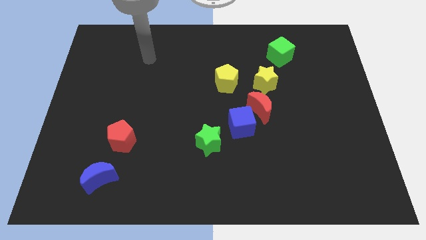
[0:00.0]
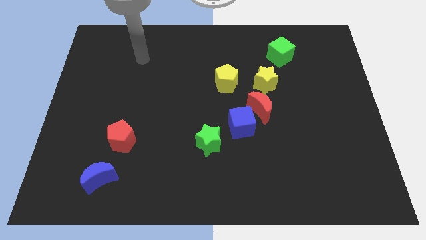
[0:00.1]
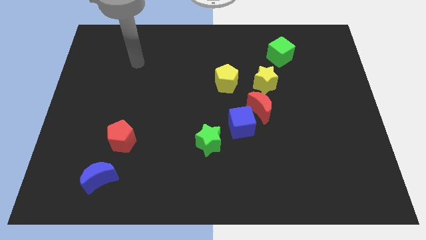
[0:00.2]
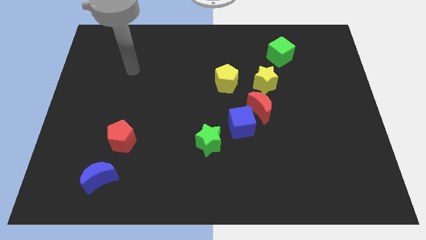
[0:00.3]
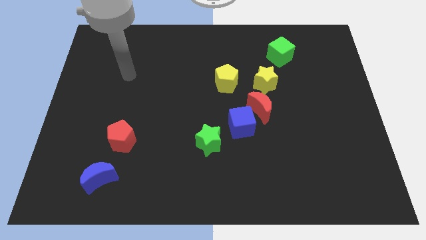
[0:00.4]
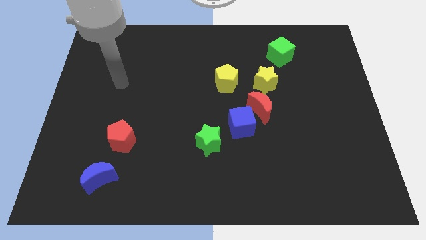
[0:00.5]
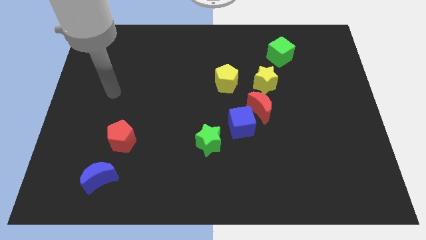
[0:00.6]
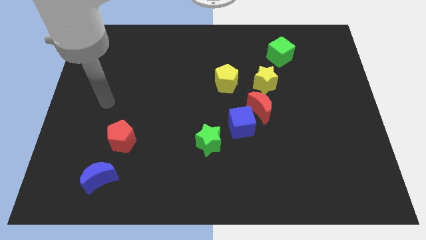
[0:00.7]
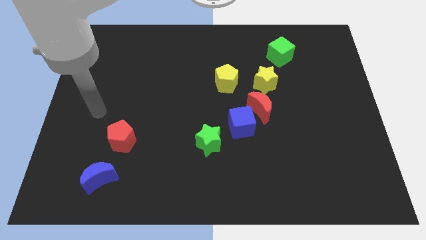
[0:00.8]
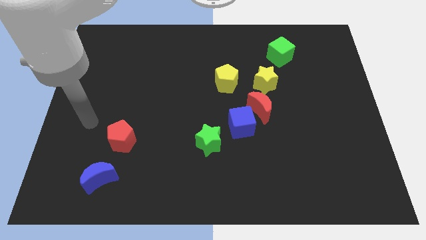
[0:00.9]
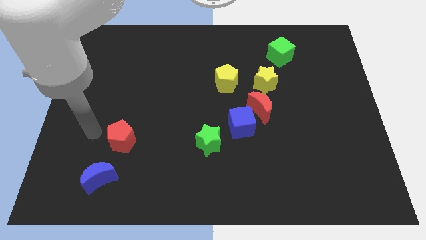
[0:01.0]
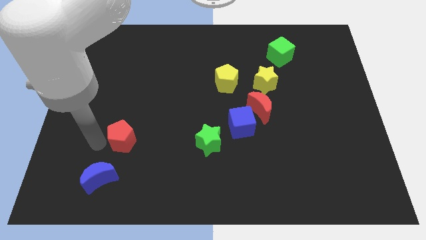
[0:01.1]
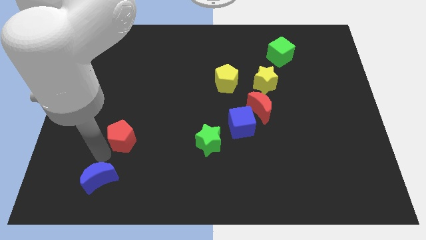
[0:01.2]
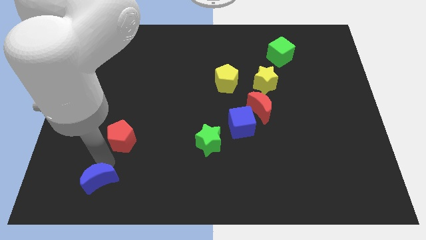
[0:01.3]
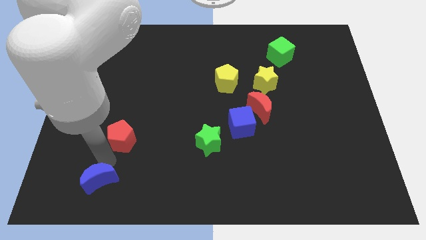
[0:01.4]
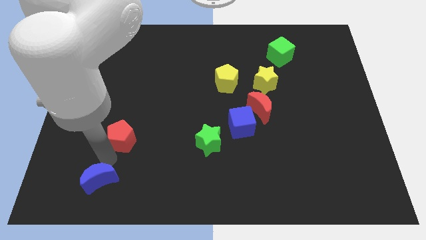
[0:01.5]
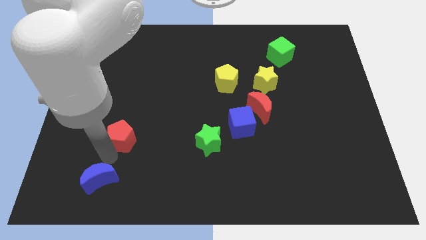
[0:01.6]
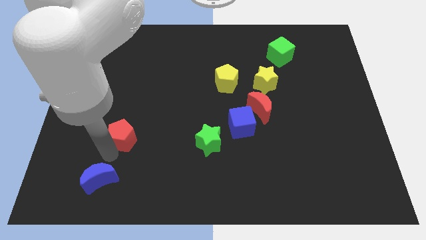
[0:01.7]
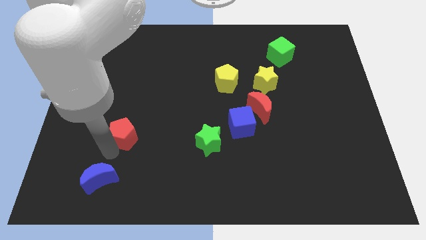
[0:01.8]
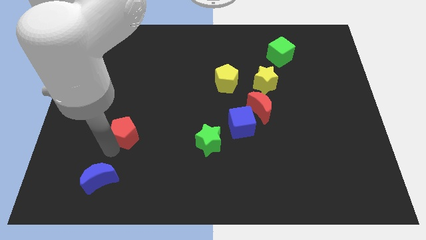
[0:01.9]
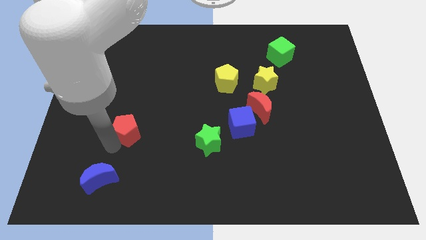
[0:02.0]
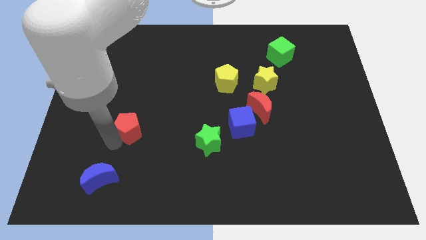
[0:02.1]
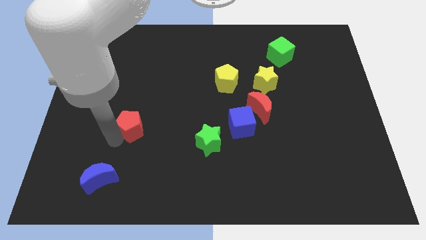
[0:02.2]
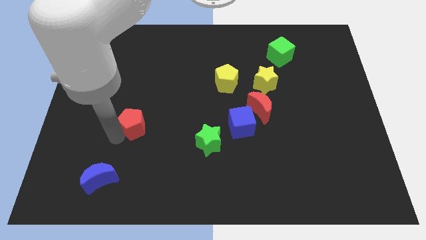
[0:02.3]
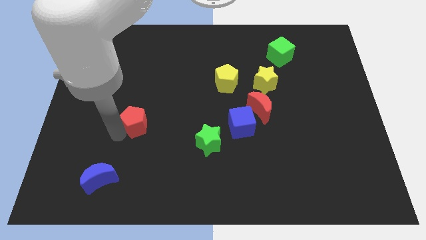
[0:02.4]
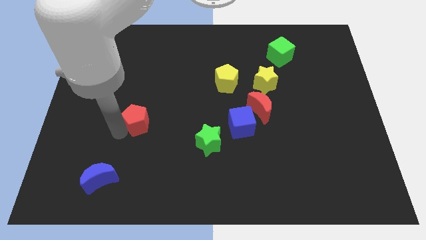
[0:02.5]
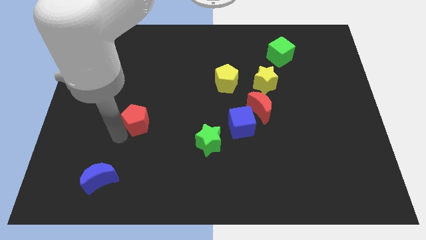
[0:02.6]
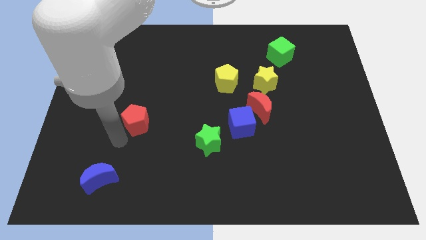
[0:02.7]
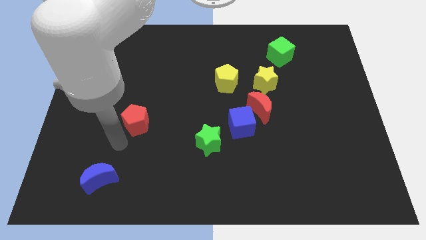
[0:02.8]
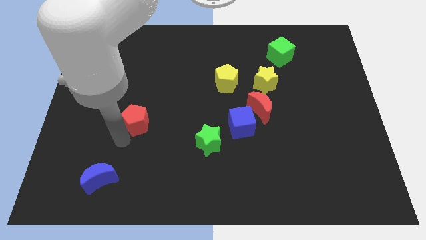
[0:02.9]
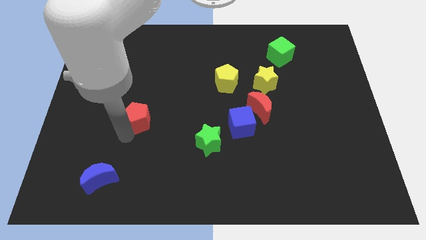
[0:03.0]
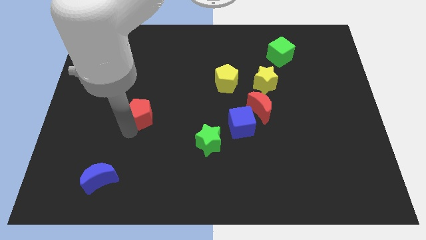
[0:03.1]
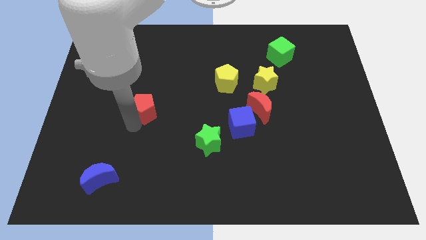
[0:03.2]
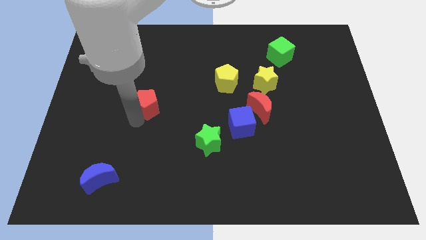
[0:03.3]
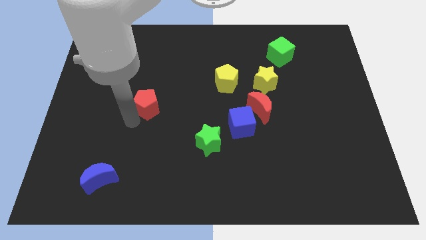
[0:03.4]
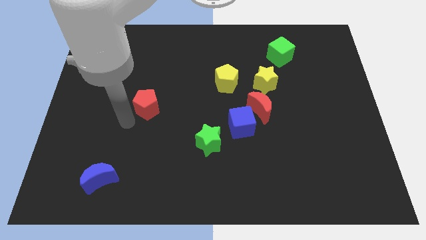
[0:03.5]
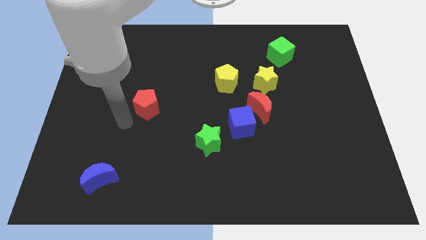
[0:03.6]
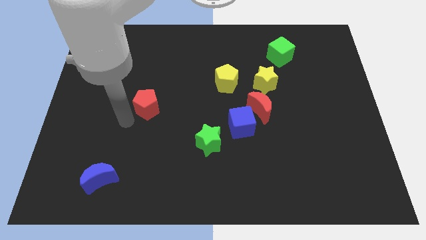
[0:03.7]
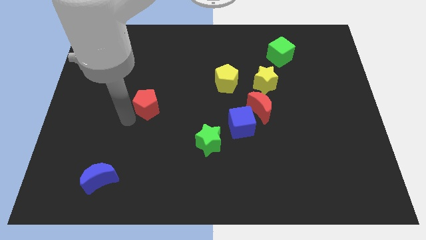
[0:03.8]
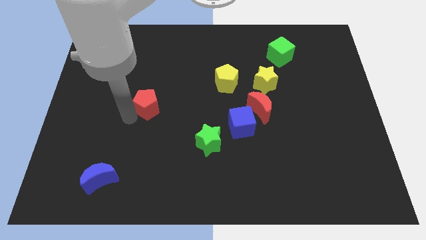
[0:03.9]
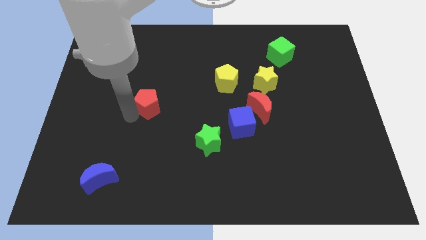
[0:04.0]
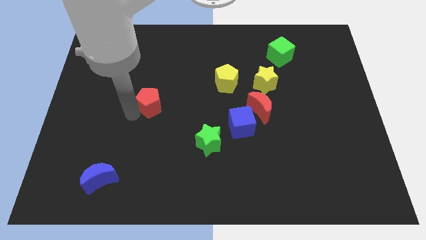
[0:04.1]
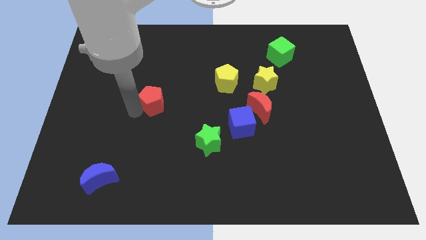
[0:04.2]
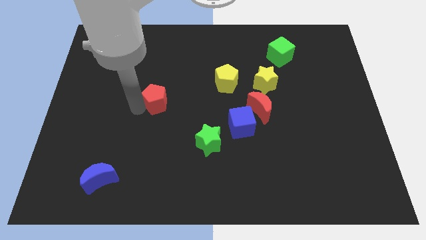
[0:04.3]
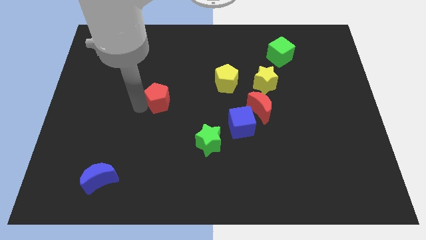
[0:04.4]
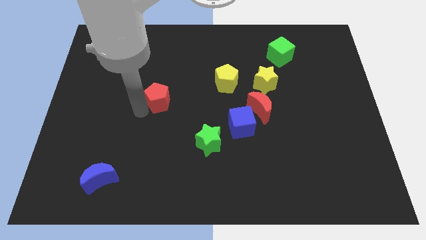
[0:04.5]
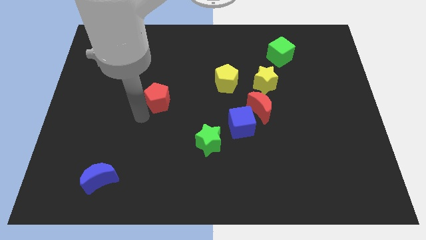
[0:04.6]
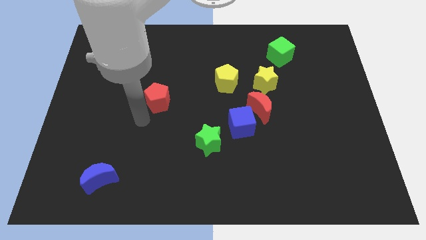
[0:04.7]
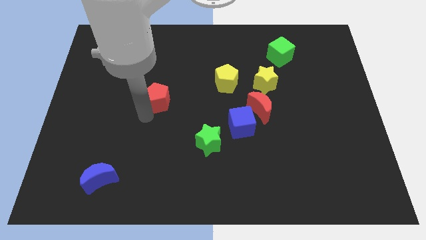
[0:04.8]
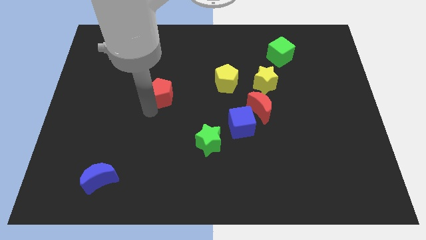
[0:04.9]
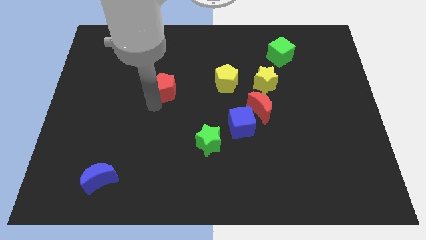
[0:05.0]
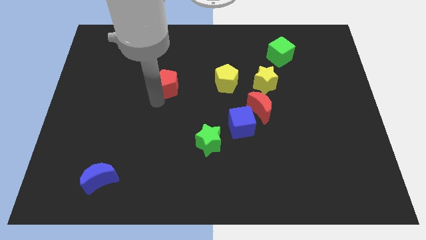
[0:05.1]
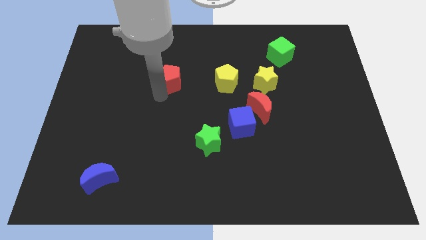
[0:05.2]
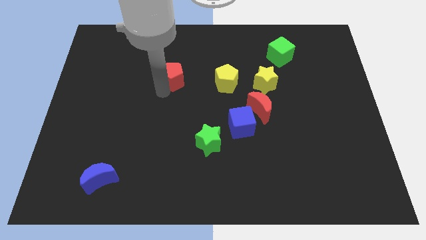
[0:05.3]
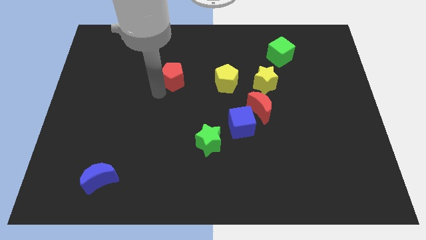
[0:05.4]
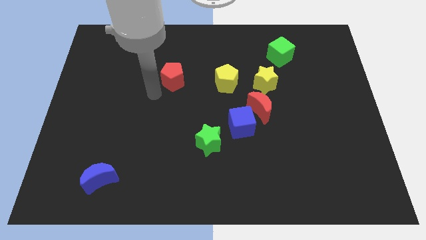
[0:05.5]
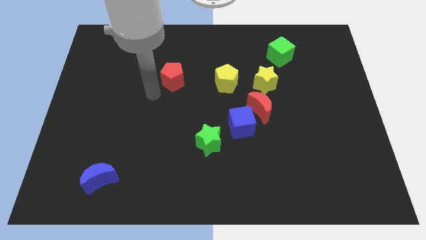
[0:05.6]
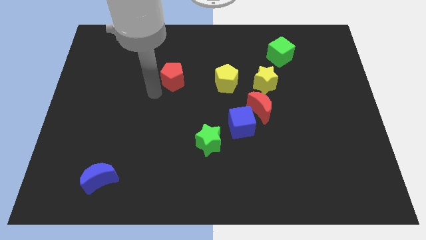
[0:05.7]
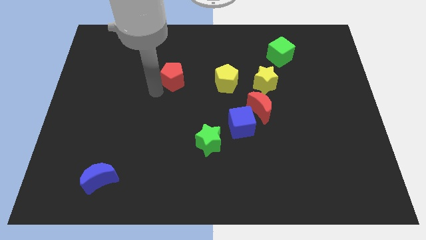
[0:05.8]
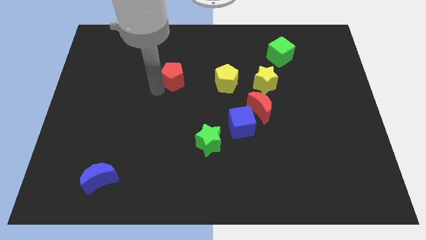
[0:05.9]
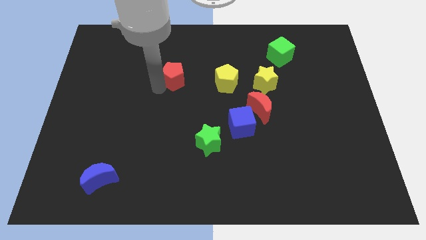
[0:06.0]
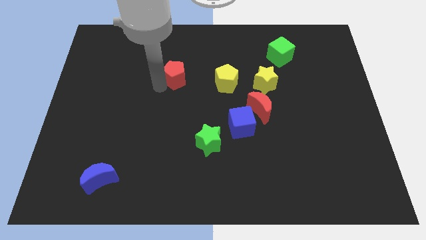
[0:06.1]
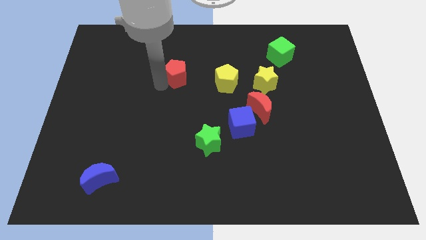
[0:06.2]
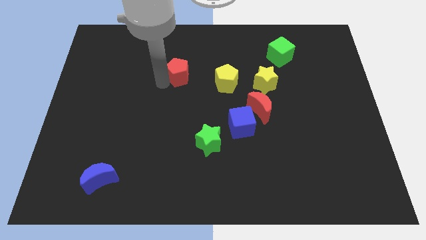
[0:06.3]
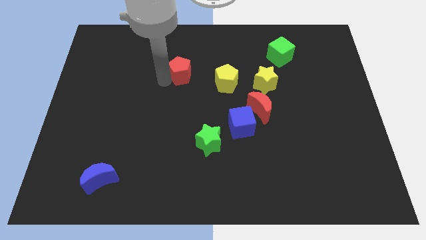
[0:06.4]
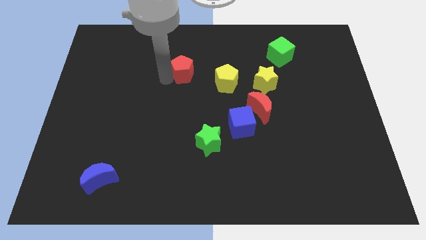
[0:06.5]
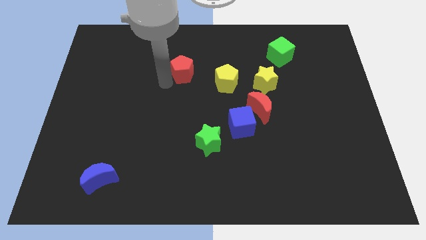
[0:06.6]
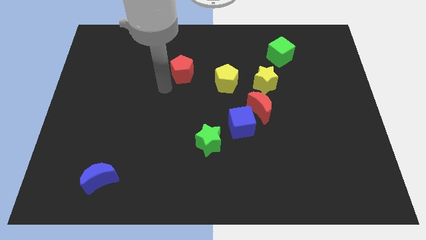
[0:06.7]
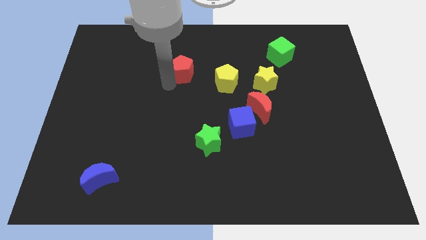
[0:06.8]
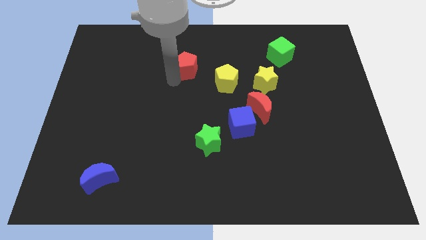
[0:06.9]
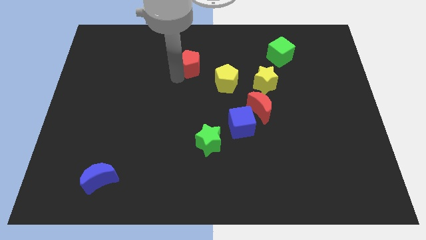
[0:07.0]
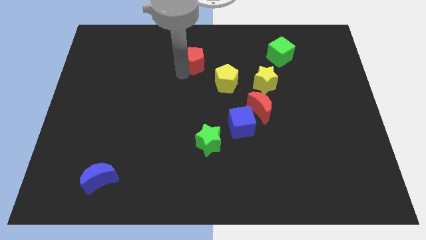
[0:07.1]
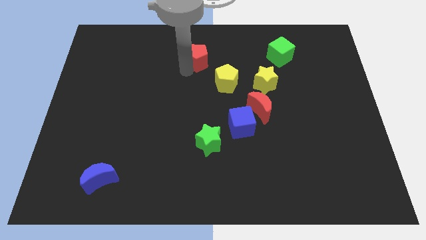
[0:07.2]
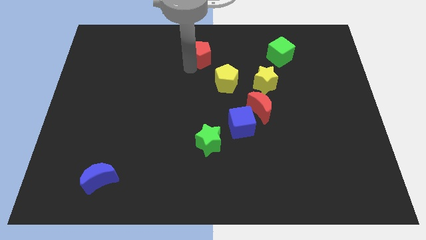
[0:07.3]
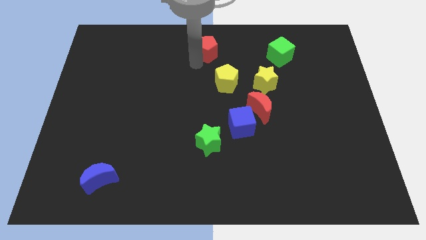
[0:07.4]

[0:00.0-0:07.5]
push the red pentagon to the top side
